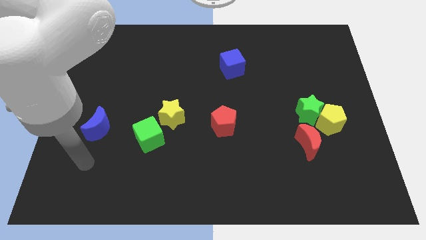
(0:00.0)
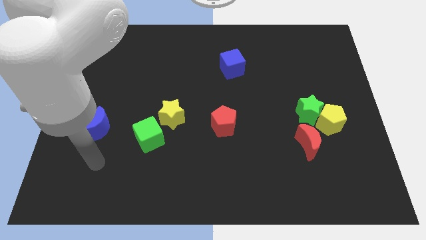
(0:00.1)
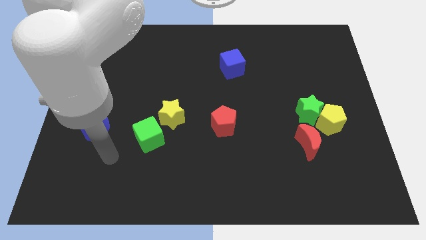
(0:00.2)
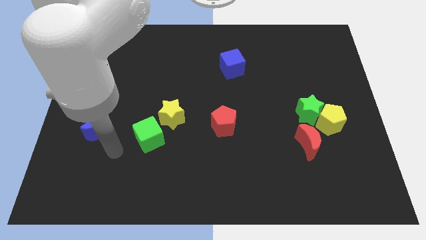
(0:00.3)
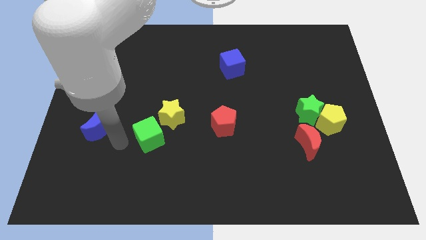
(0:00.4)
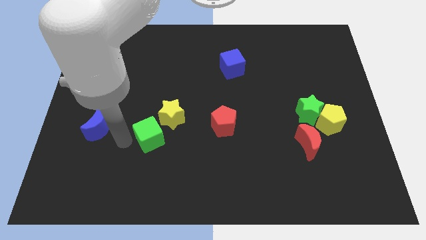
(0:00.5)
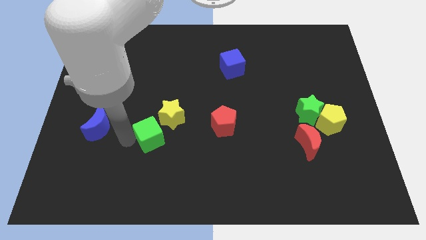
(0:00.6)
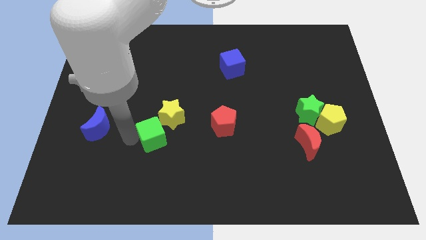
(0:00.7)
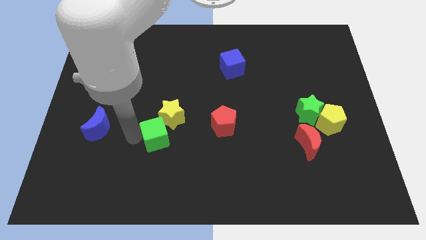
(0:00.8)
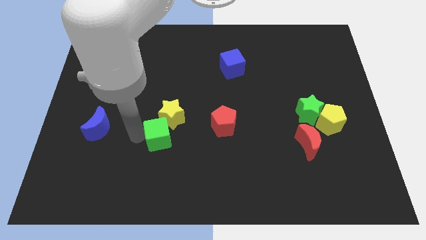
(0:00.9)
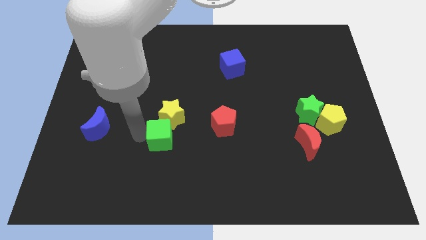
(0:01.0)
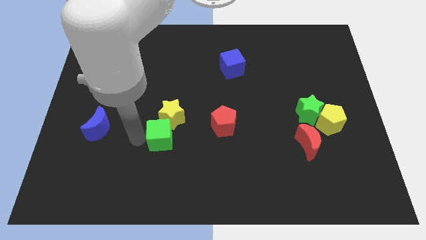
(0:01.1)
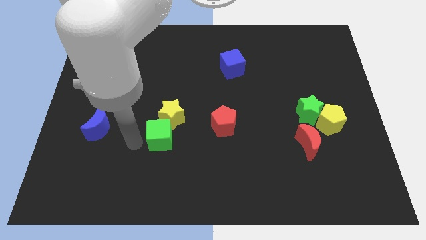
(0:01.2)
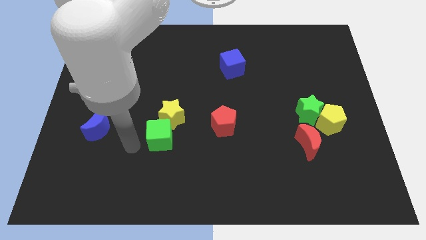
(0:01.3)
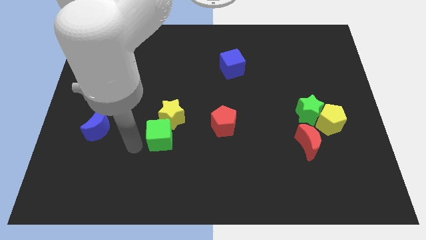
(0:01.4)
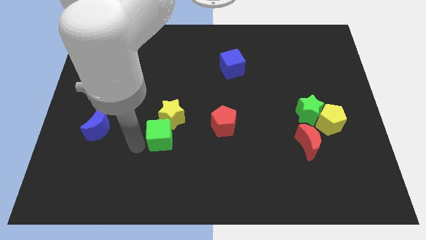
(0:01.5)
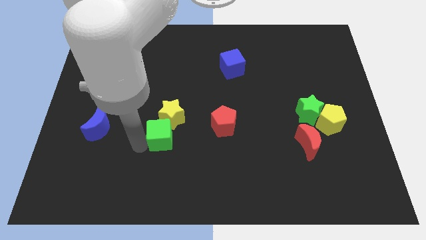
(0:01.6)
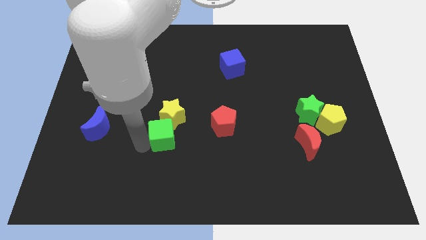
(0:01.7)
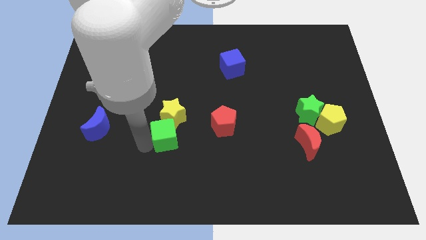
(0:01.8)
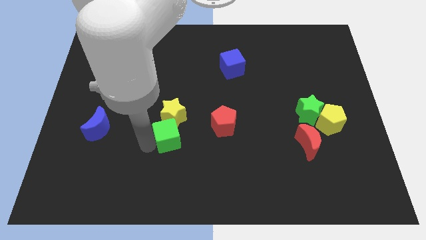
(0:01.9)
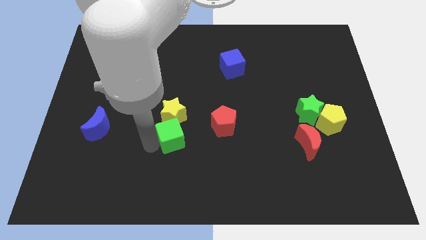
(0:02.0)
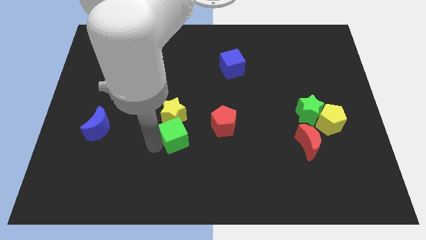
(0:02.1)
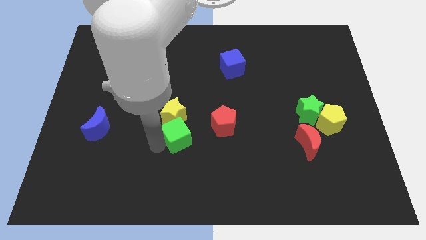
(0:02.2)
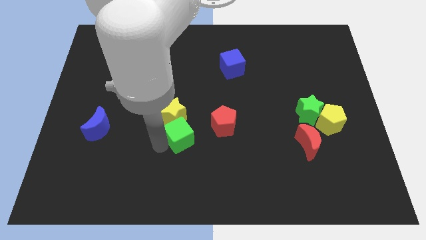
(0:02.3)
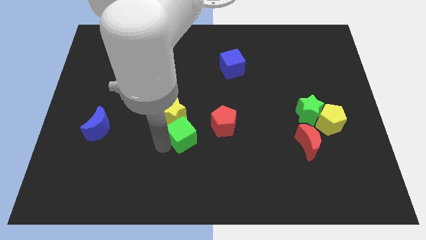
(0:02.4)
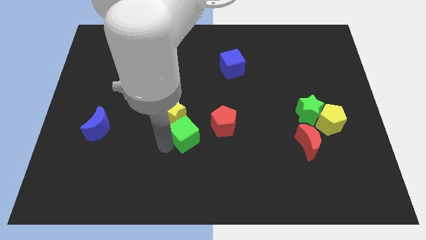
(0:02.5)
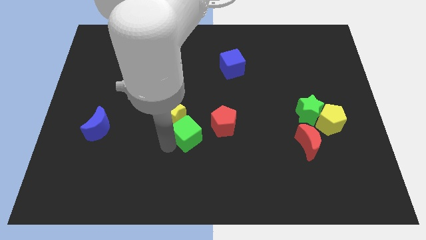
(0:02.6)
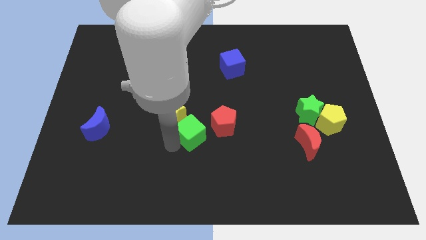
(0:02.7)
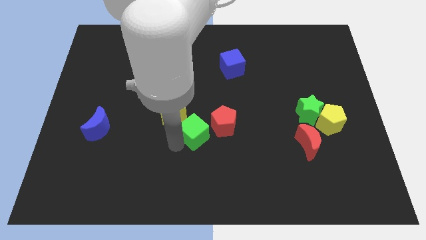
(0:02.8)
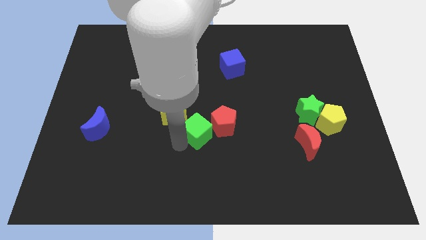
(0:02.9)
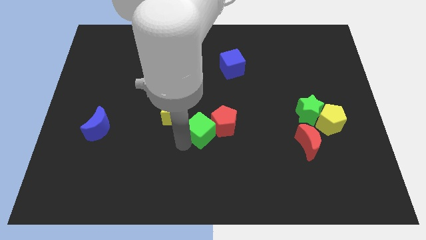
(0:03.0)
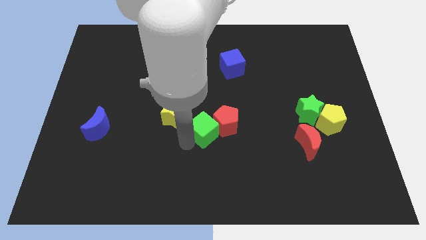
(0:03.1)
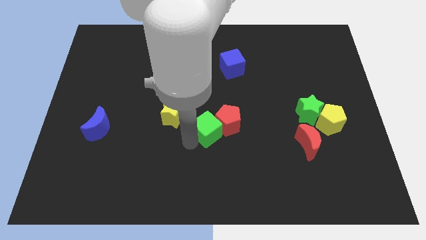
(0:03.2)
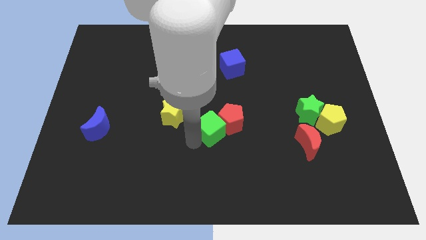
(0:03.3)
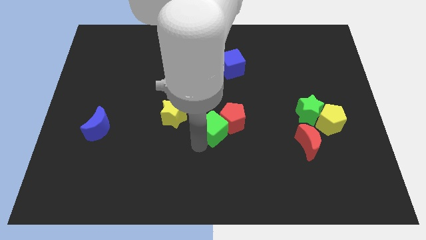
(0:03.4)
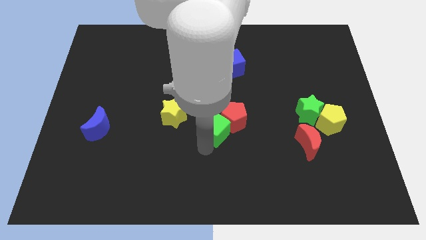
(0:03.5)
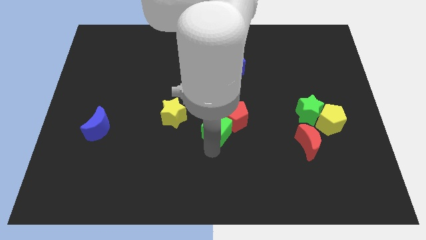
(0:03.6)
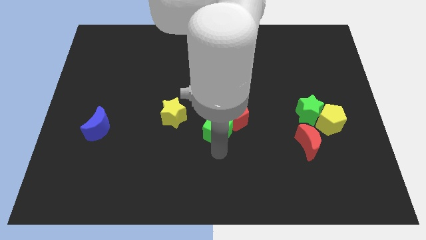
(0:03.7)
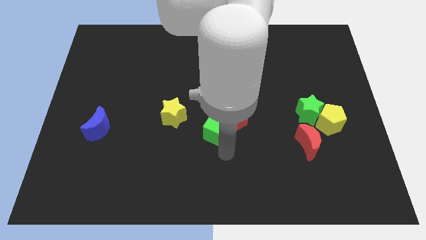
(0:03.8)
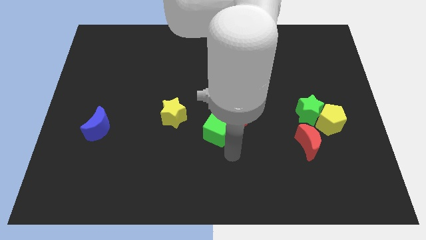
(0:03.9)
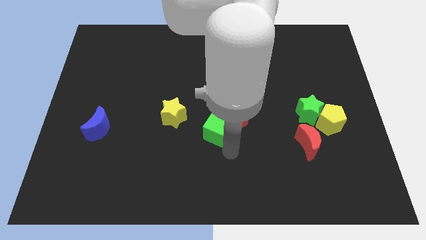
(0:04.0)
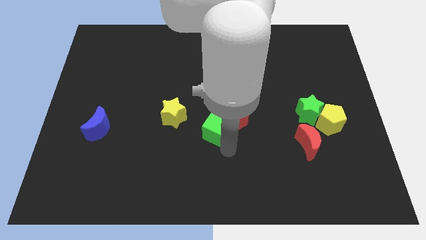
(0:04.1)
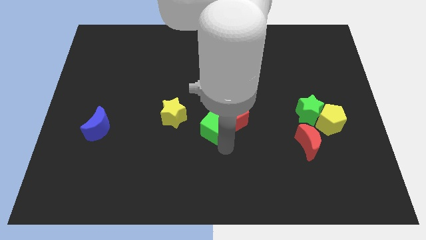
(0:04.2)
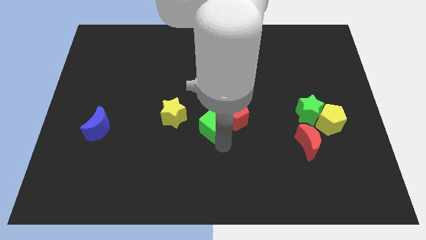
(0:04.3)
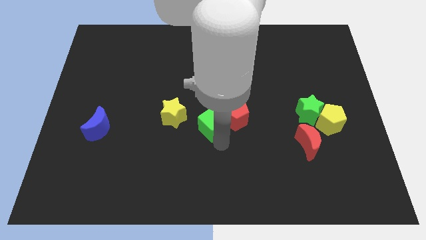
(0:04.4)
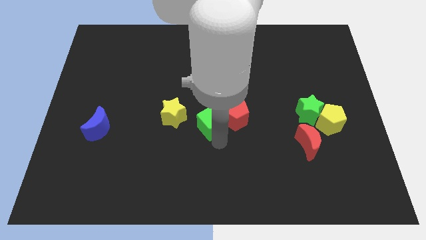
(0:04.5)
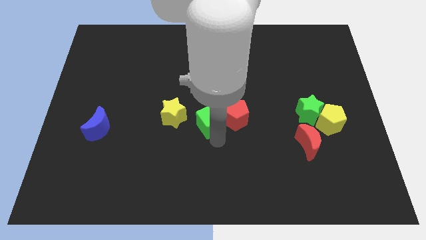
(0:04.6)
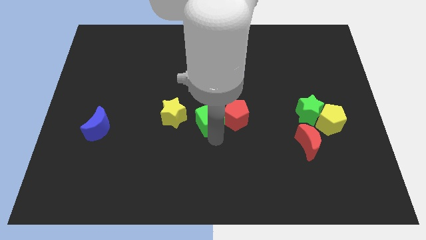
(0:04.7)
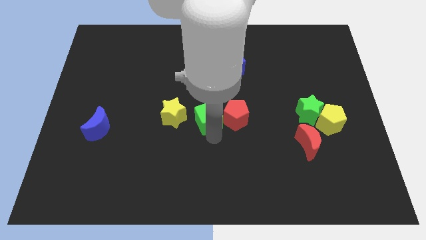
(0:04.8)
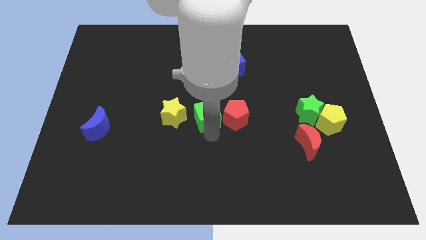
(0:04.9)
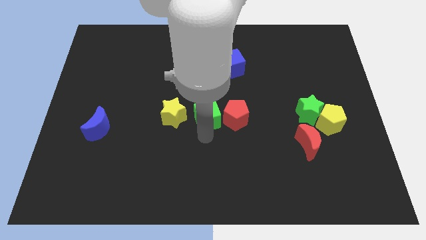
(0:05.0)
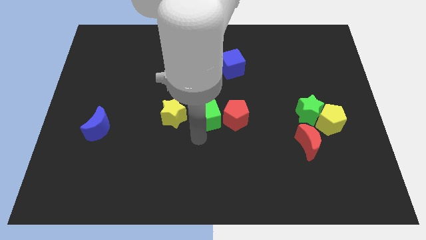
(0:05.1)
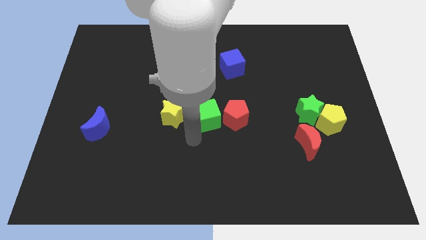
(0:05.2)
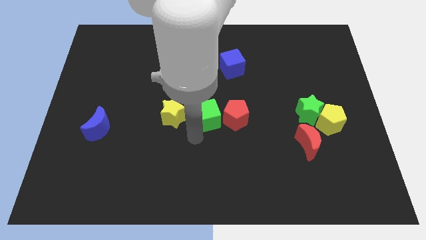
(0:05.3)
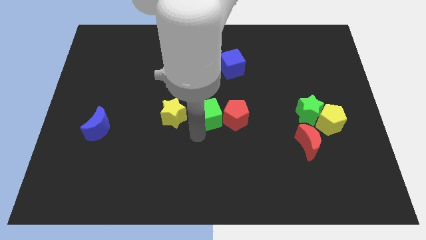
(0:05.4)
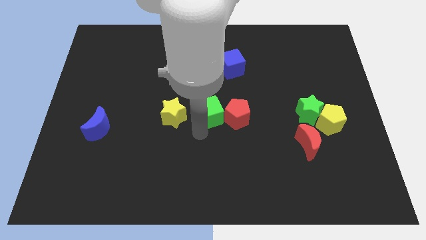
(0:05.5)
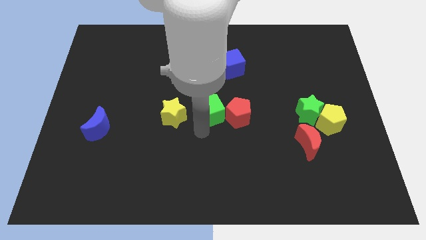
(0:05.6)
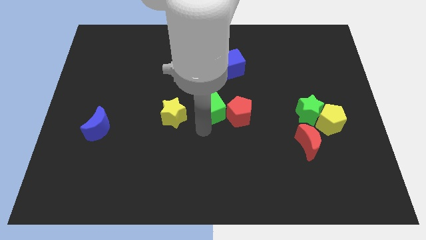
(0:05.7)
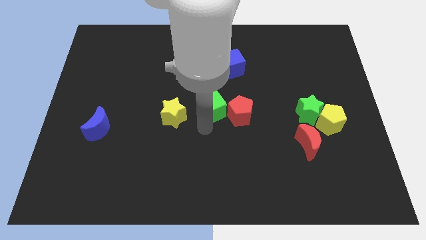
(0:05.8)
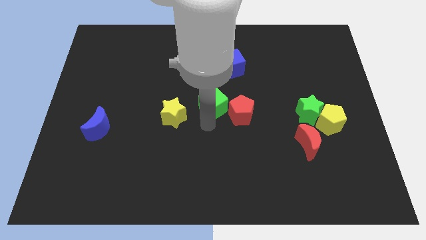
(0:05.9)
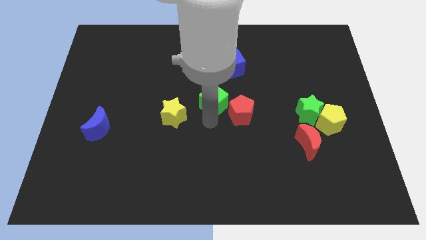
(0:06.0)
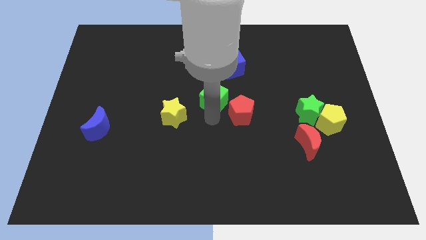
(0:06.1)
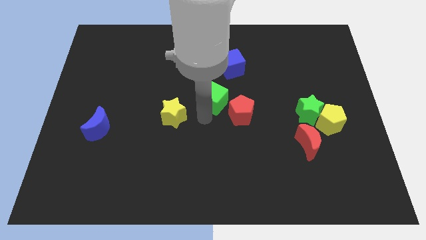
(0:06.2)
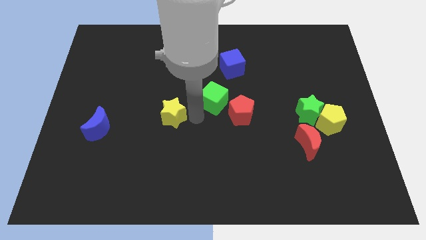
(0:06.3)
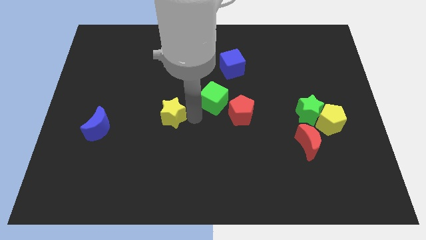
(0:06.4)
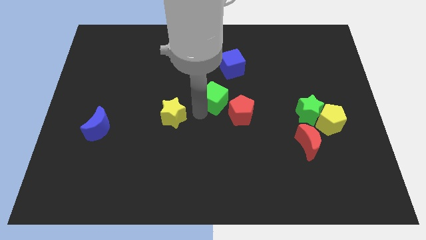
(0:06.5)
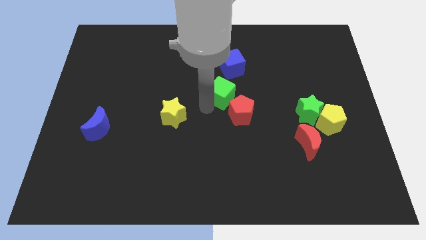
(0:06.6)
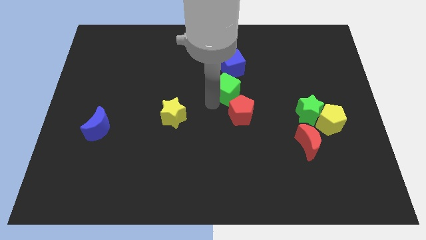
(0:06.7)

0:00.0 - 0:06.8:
slide the green cube diagonally up and to the right

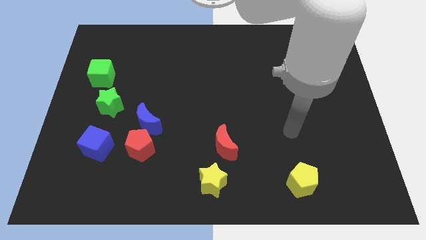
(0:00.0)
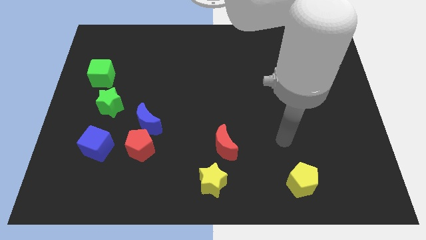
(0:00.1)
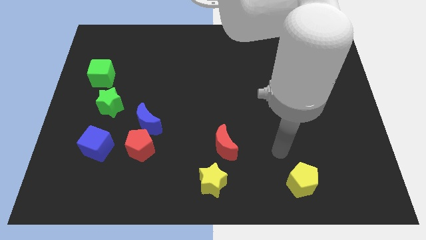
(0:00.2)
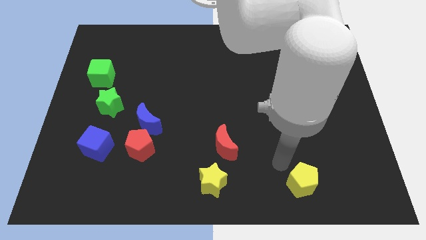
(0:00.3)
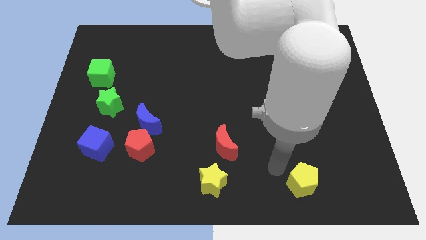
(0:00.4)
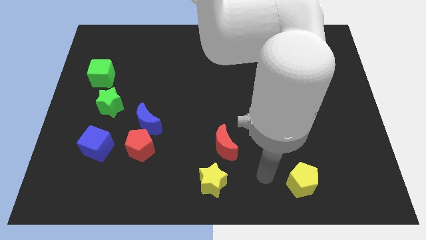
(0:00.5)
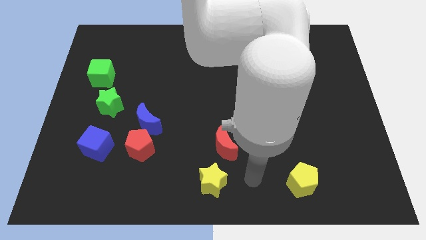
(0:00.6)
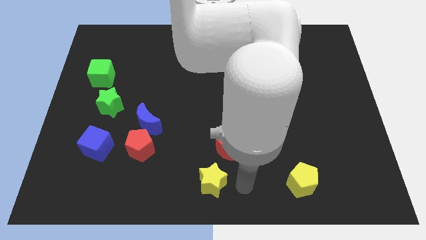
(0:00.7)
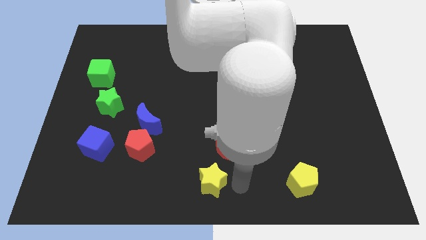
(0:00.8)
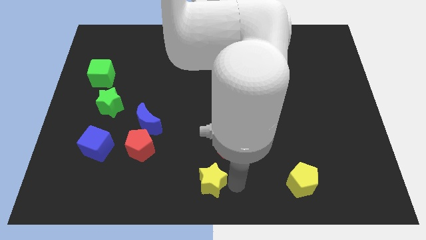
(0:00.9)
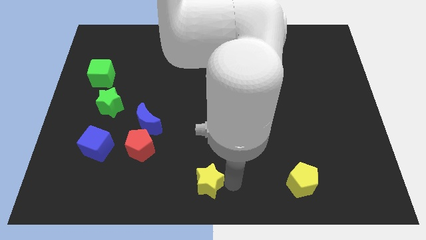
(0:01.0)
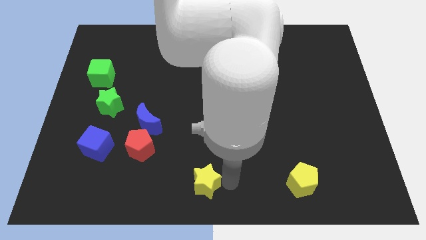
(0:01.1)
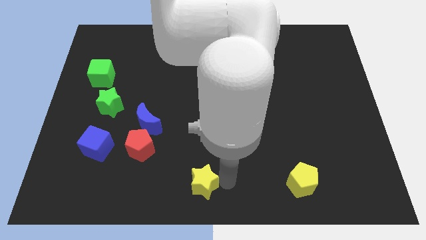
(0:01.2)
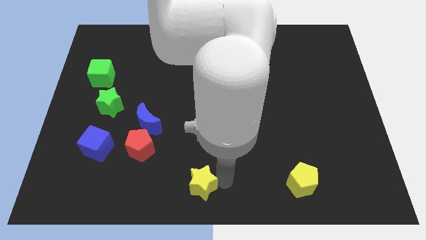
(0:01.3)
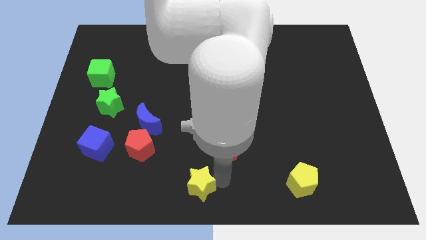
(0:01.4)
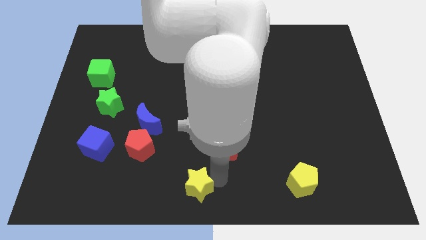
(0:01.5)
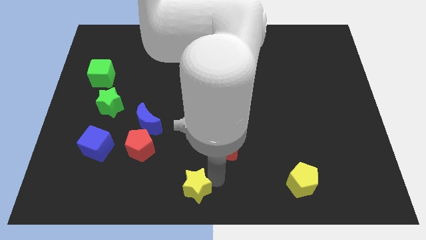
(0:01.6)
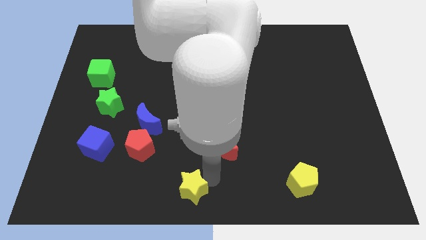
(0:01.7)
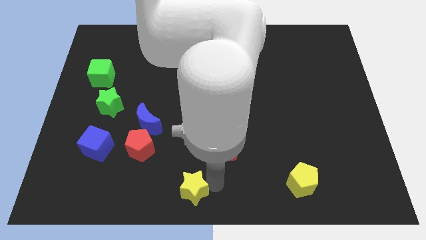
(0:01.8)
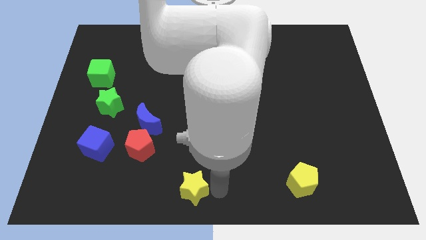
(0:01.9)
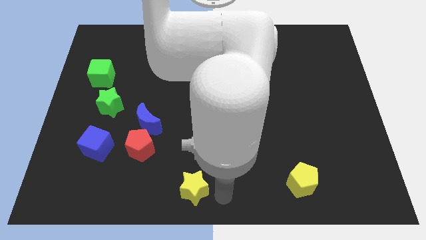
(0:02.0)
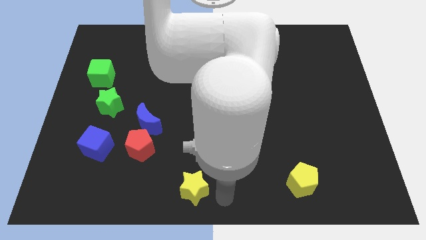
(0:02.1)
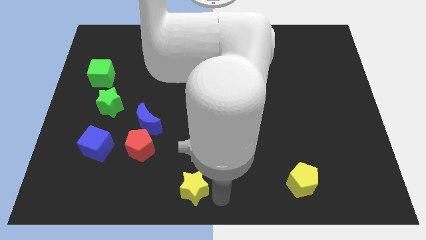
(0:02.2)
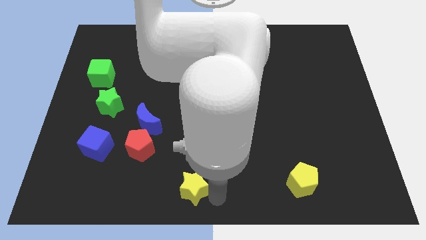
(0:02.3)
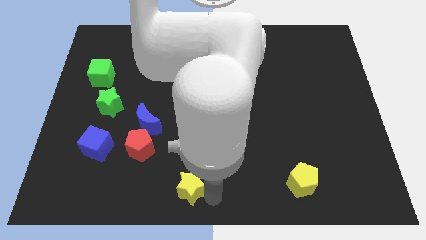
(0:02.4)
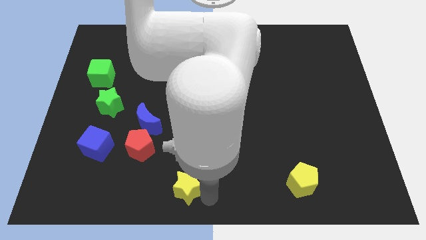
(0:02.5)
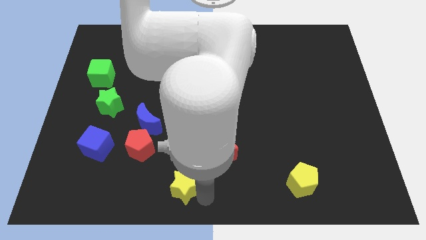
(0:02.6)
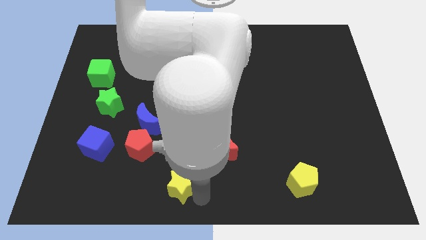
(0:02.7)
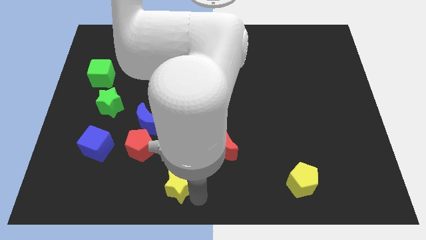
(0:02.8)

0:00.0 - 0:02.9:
move the yellow star to the left a little bit
